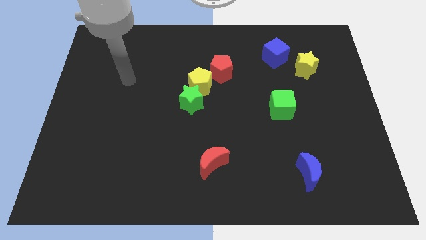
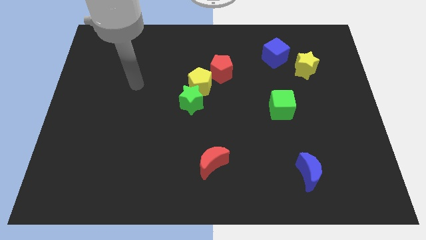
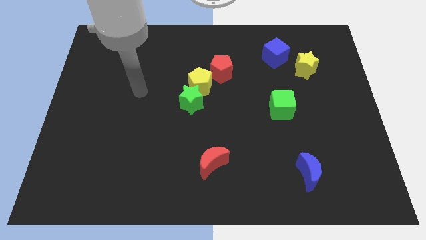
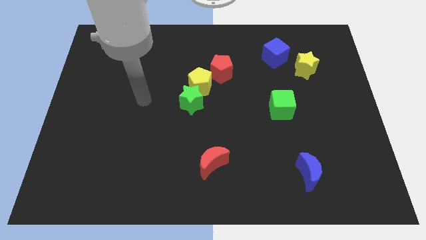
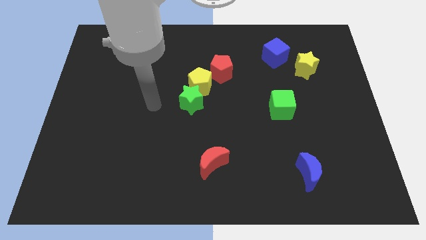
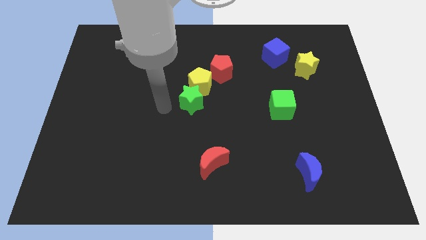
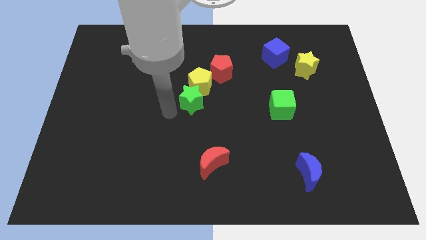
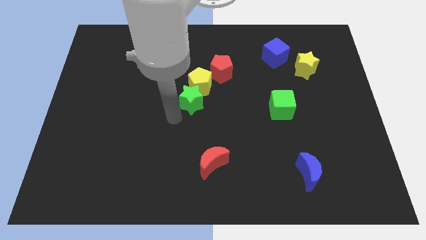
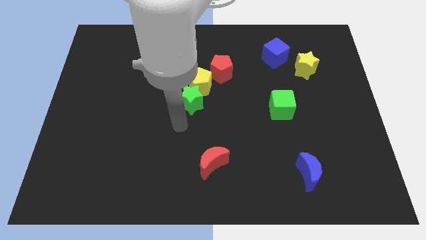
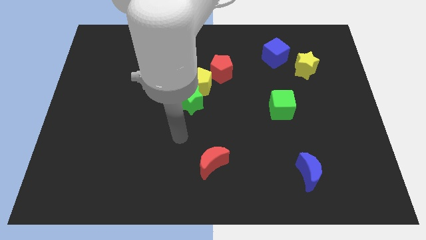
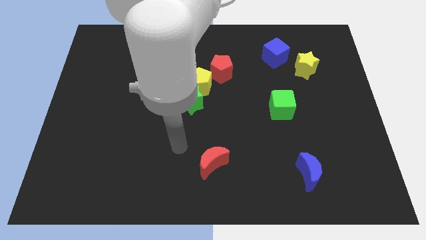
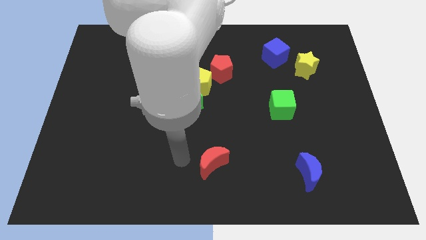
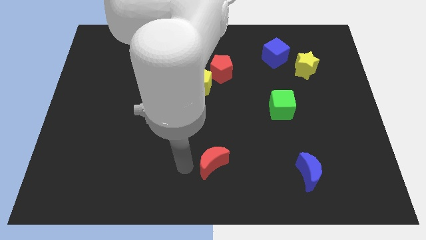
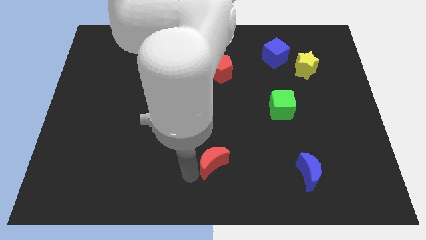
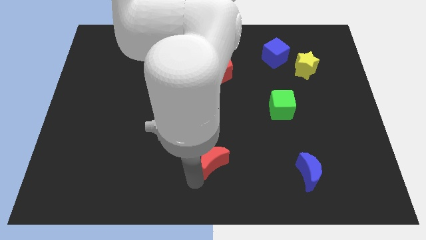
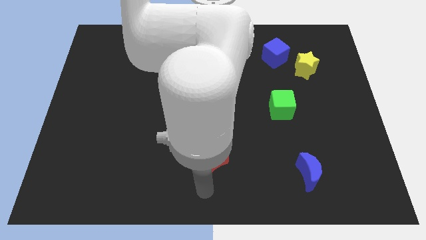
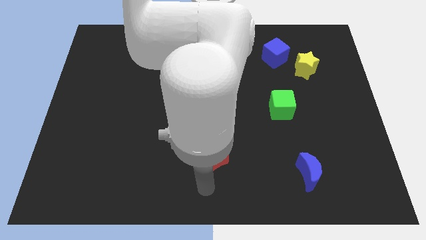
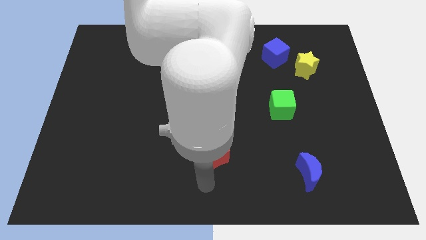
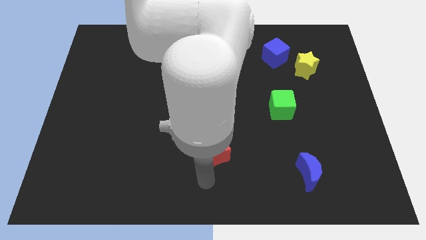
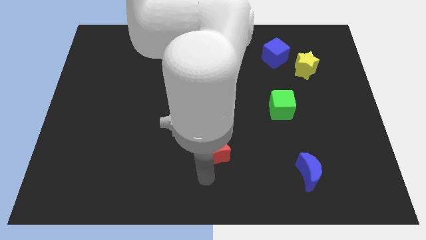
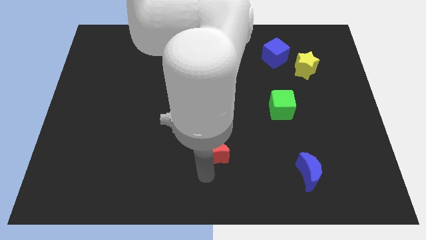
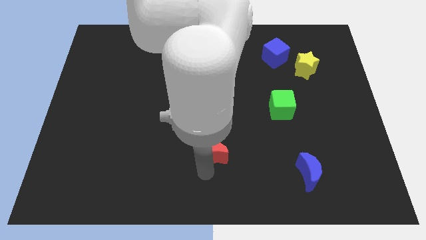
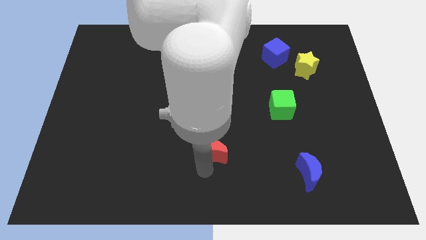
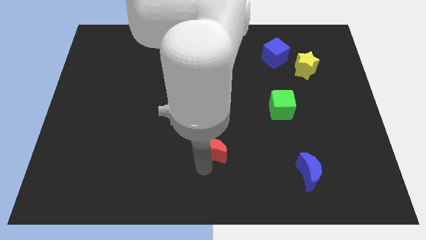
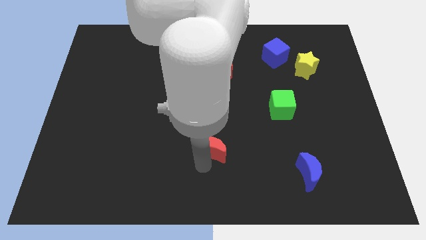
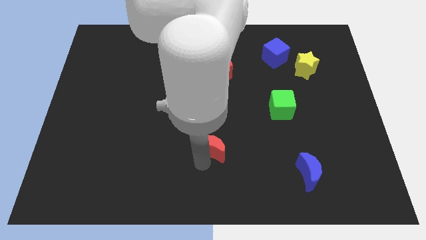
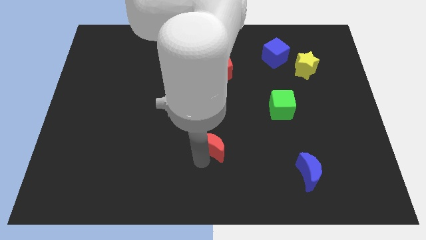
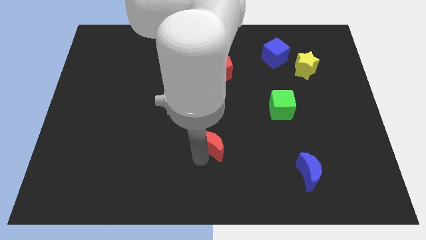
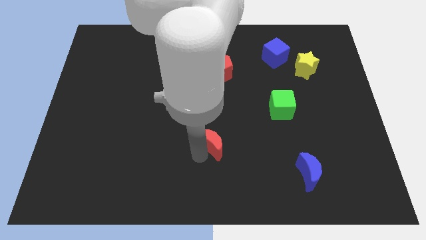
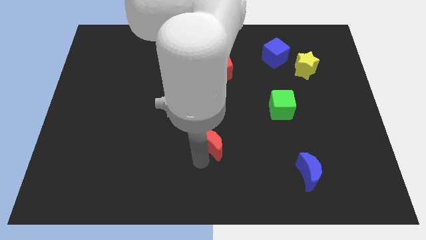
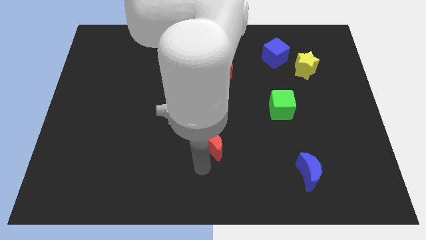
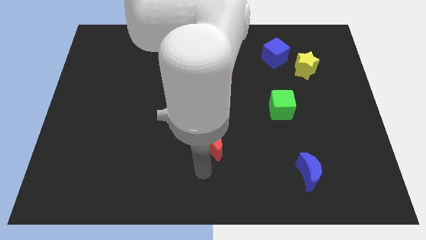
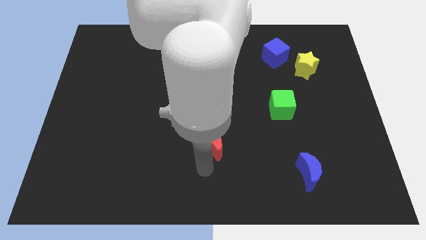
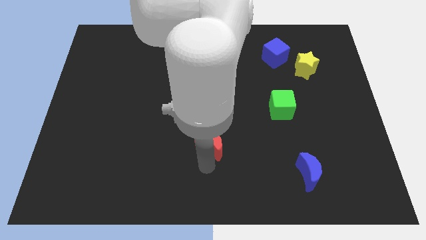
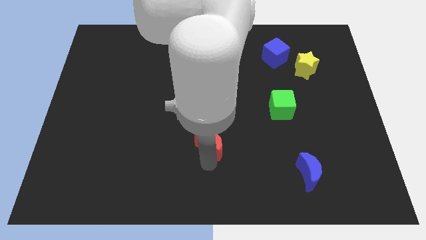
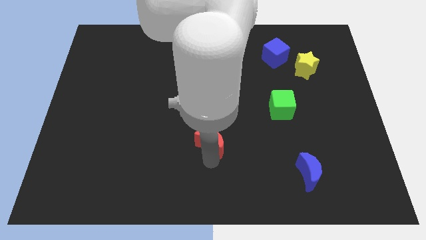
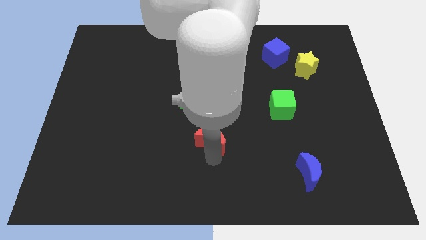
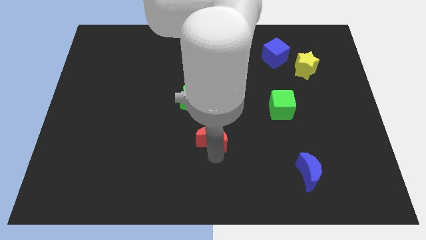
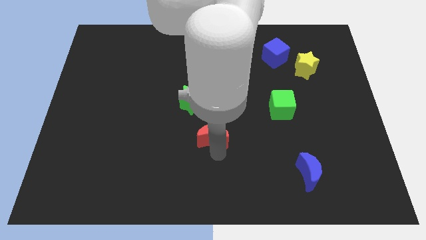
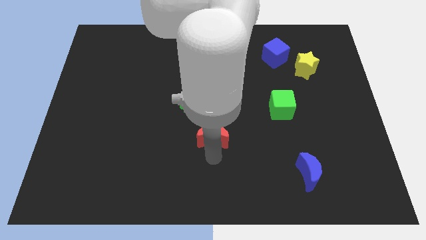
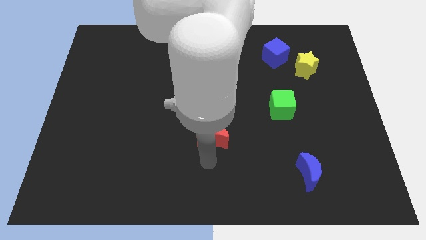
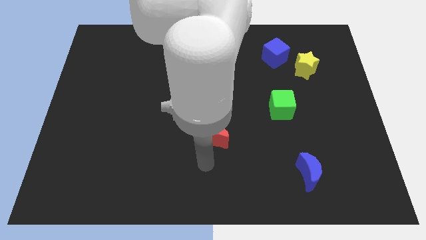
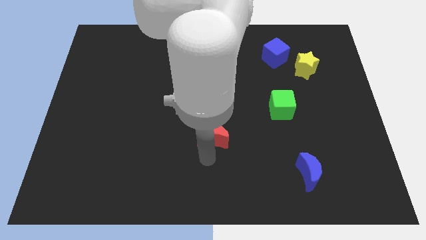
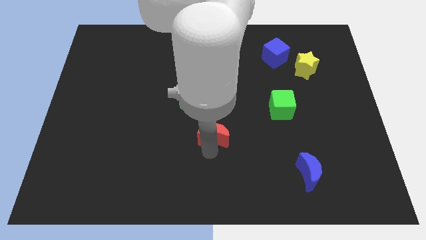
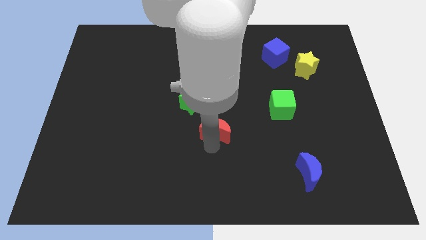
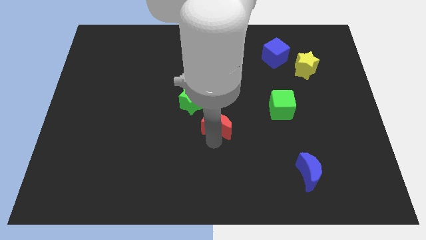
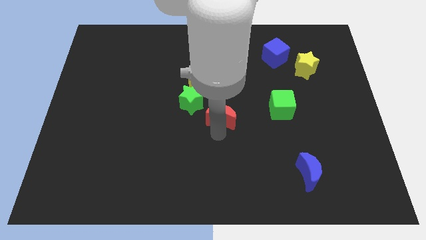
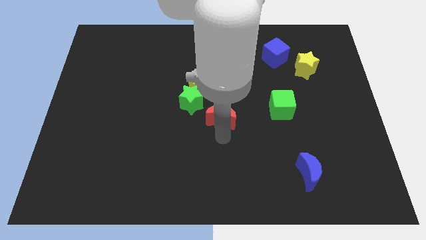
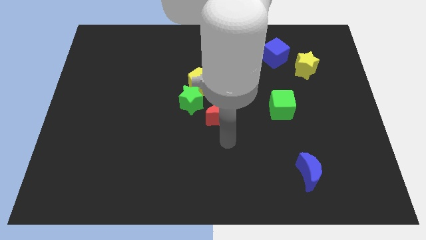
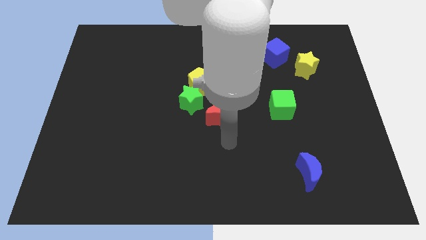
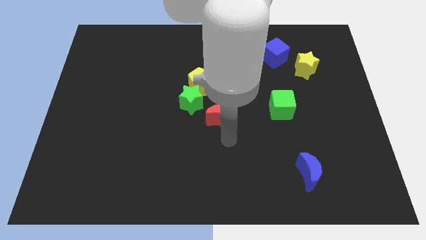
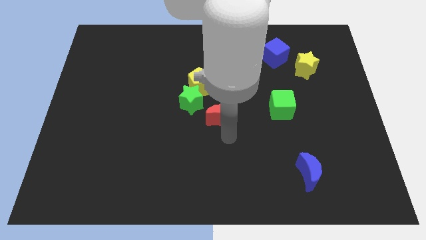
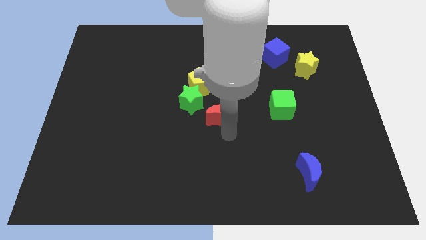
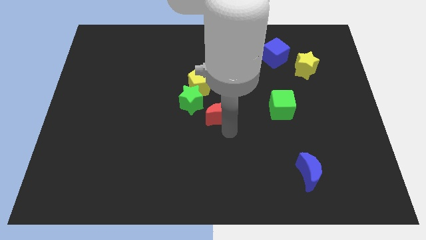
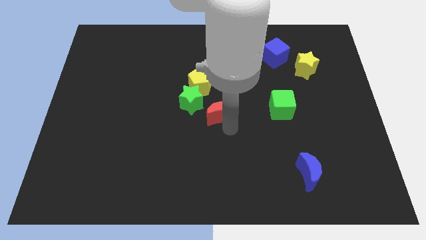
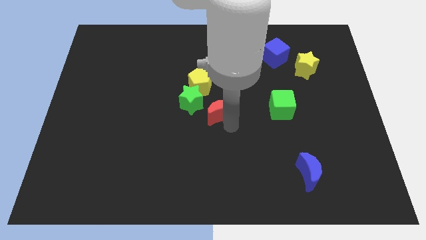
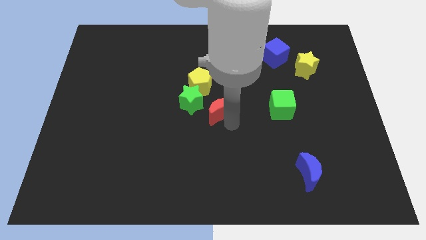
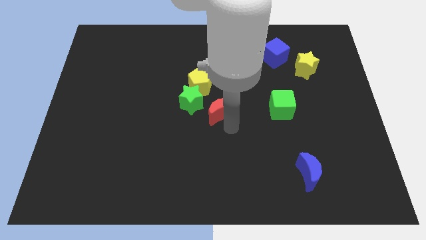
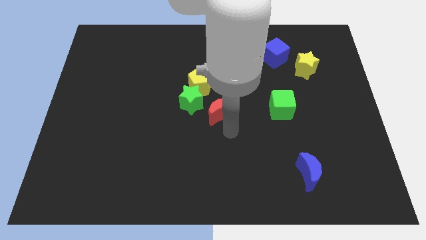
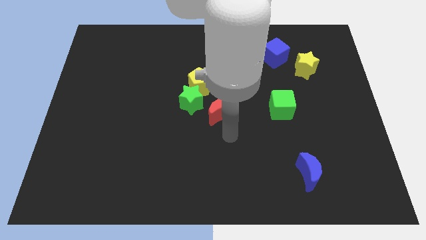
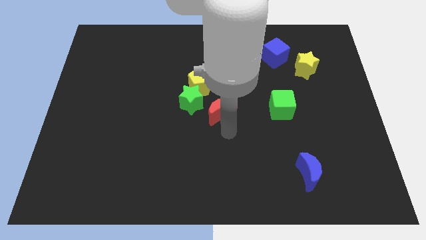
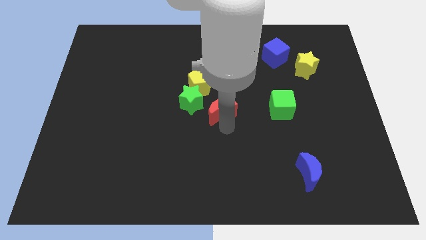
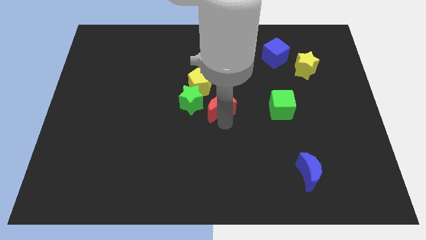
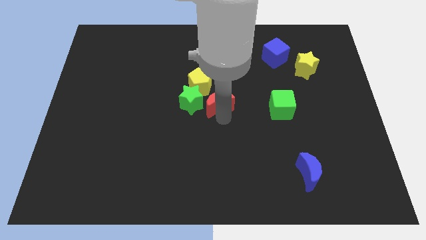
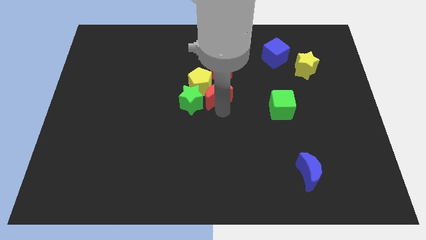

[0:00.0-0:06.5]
slide the red moon to the yellow pentagon

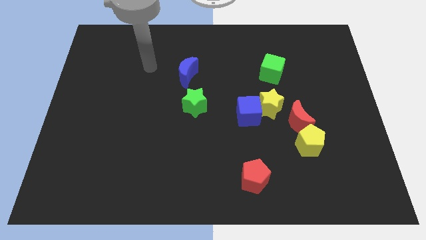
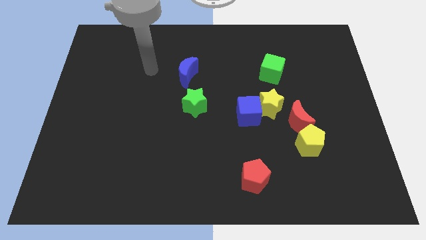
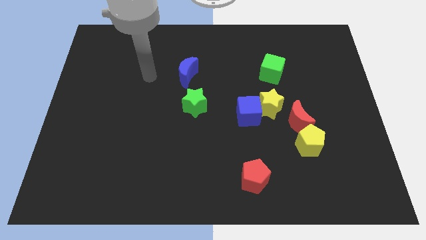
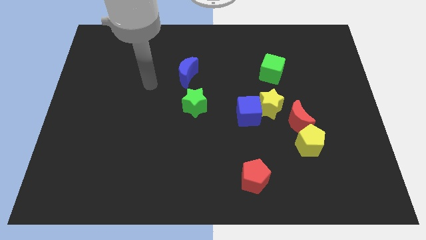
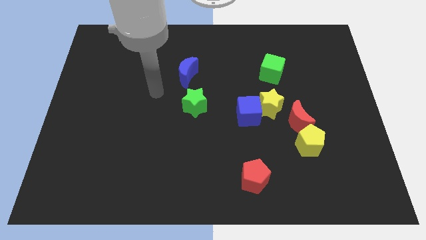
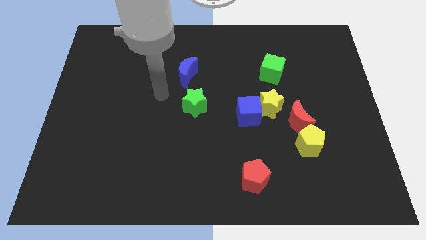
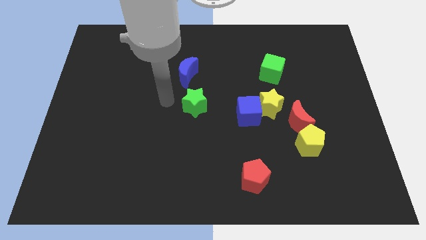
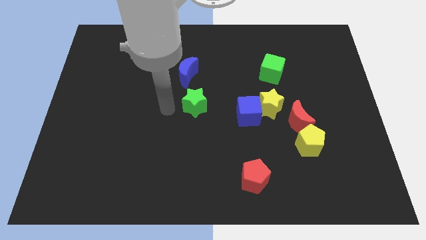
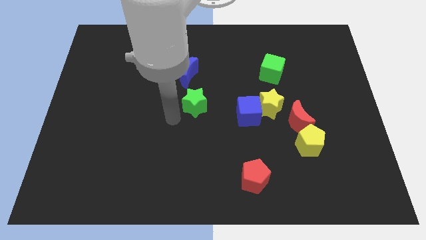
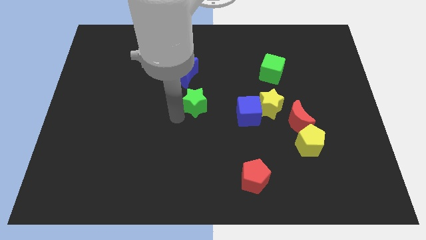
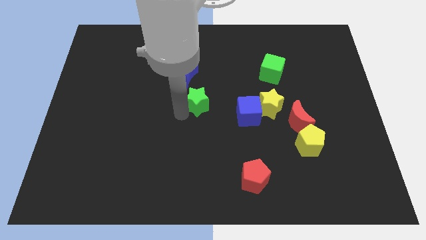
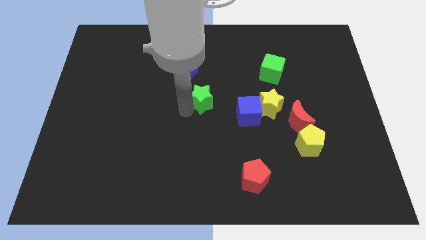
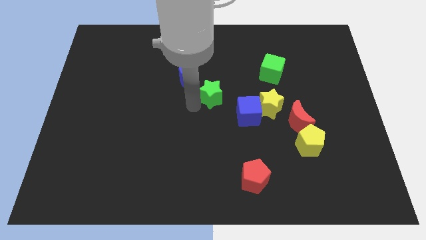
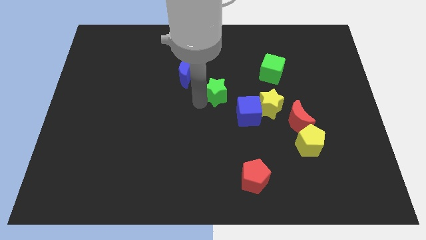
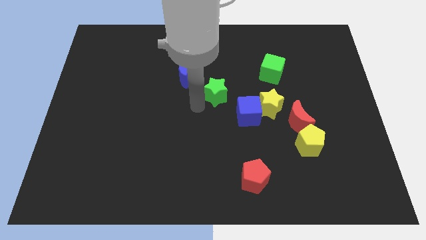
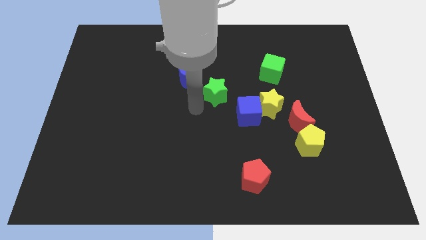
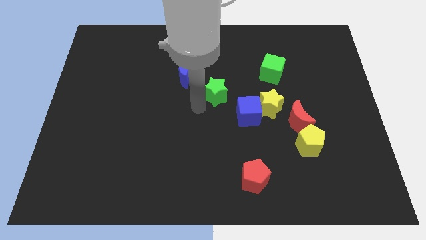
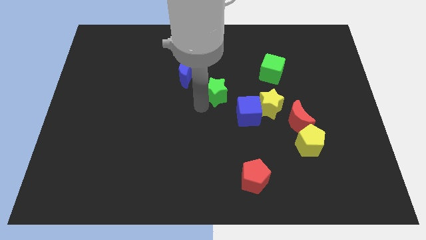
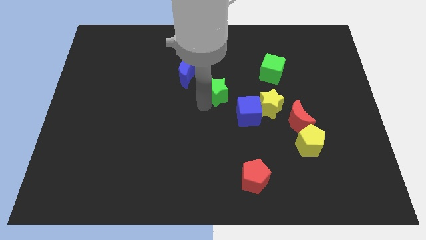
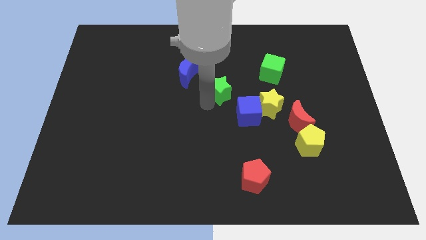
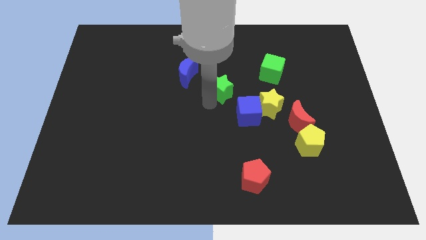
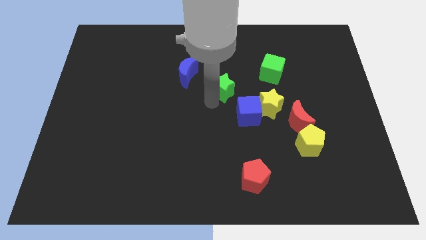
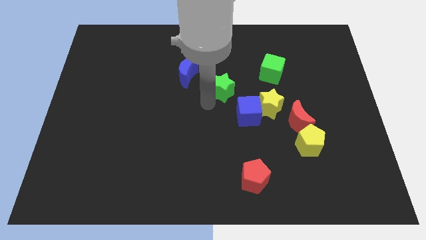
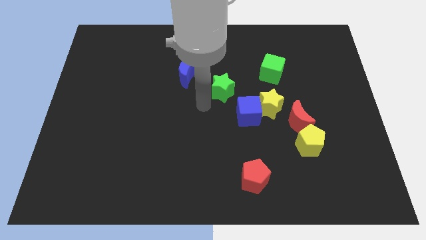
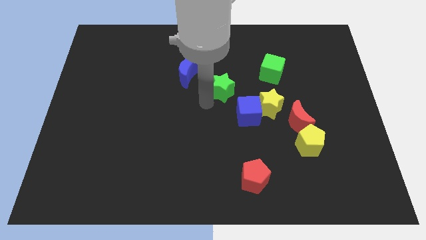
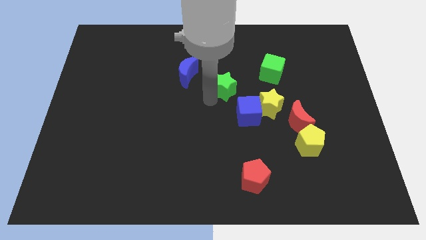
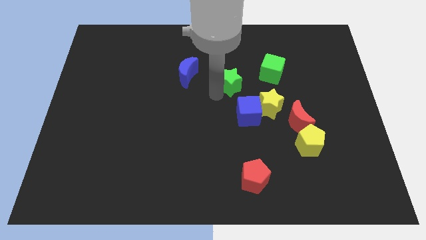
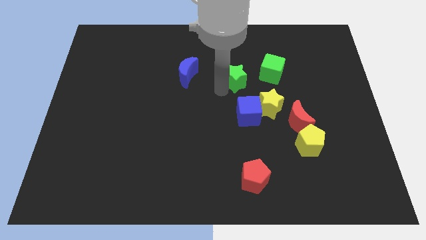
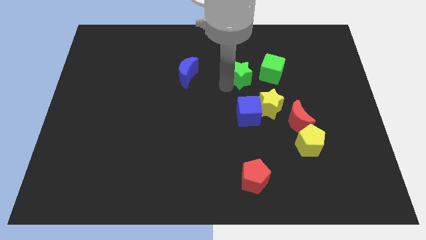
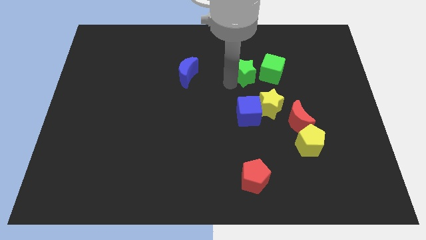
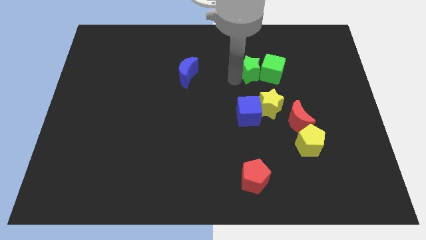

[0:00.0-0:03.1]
slide the green star close to the green cube
